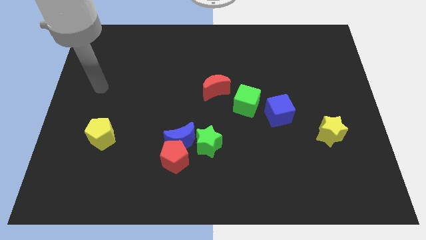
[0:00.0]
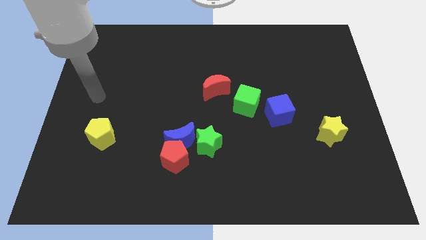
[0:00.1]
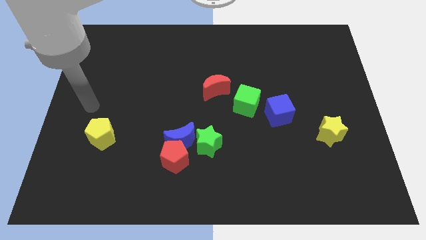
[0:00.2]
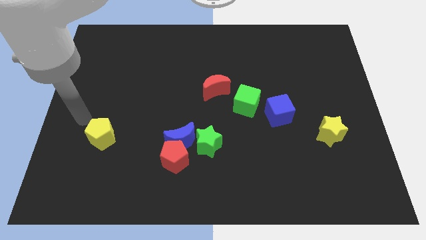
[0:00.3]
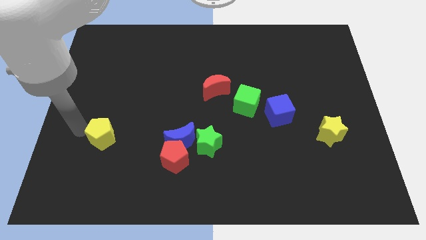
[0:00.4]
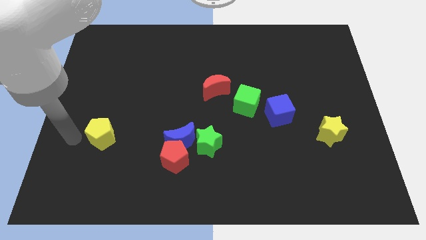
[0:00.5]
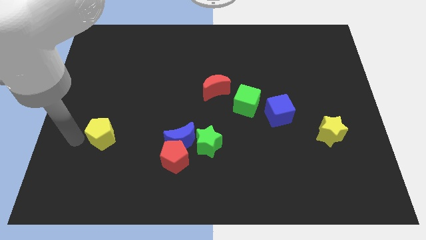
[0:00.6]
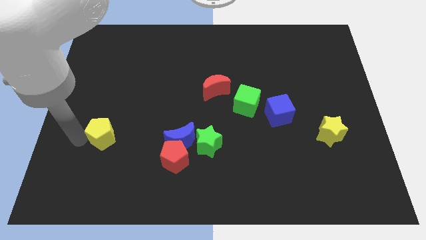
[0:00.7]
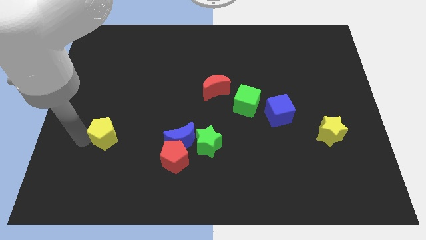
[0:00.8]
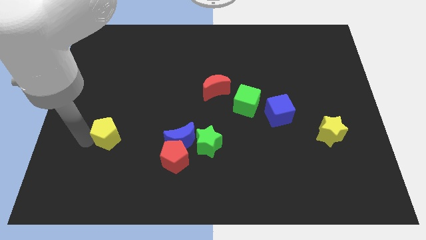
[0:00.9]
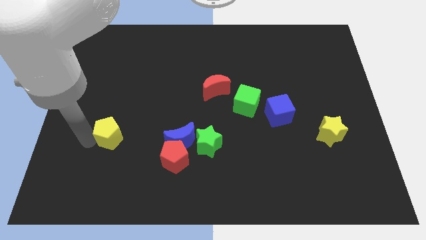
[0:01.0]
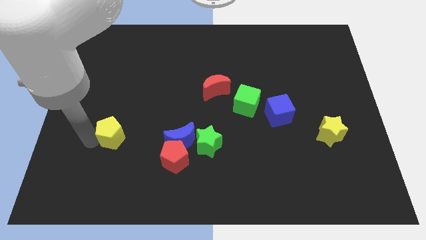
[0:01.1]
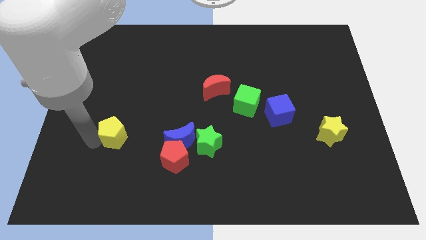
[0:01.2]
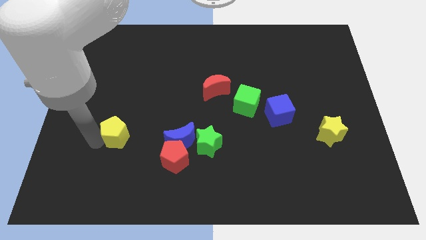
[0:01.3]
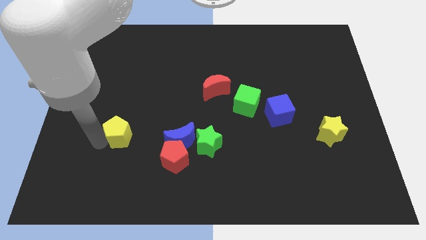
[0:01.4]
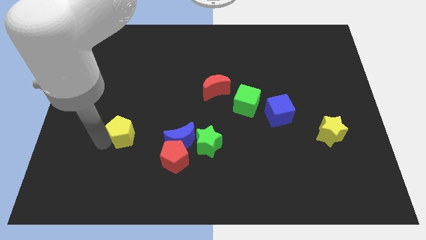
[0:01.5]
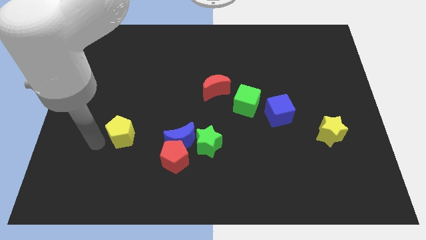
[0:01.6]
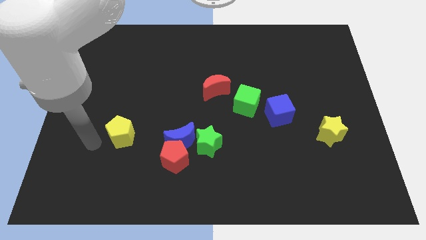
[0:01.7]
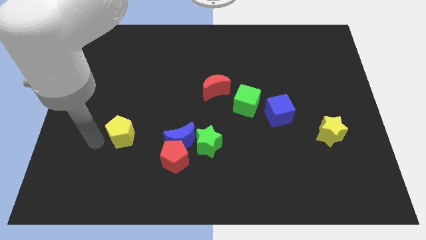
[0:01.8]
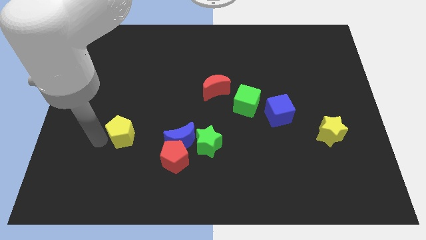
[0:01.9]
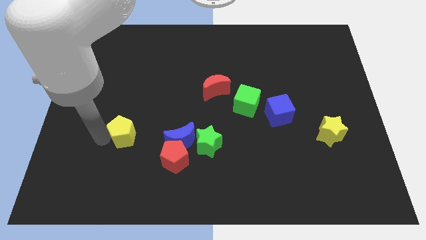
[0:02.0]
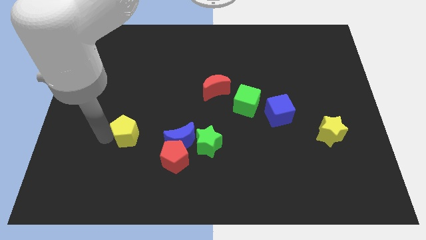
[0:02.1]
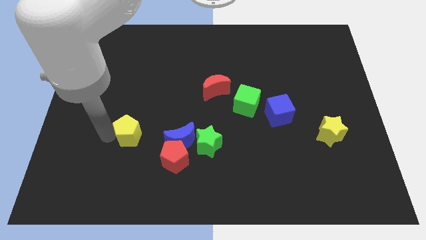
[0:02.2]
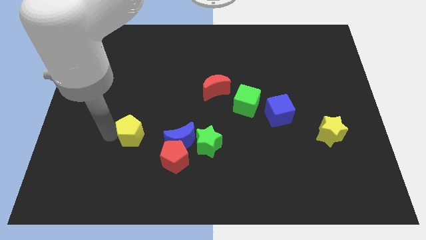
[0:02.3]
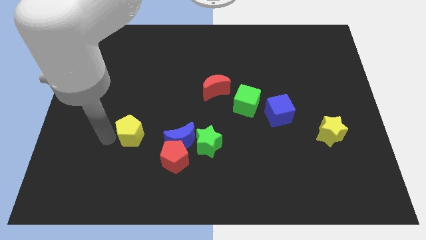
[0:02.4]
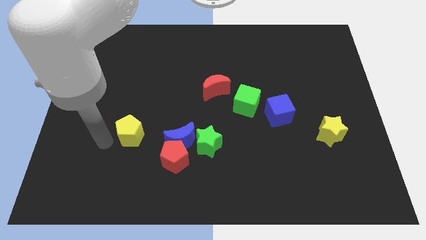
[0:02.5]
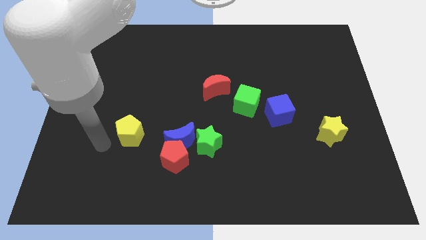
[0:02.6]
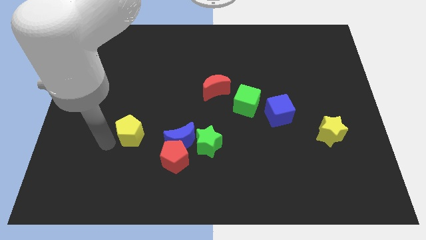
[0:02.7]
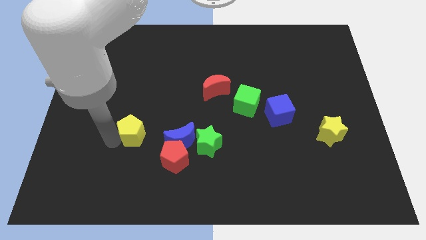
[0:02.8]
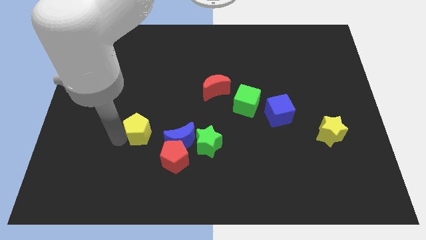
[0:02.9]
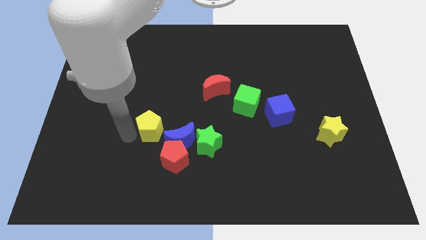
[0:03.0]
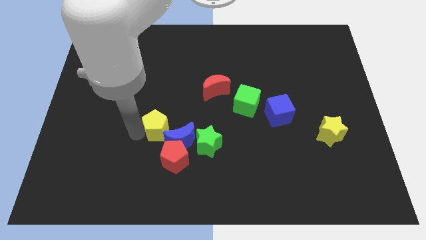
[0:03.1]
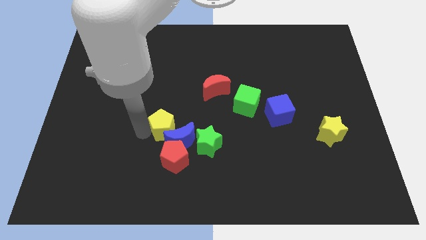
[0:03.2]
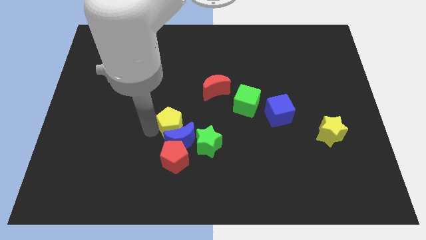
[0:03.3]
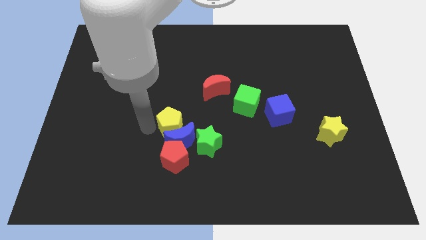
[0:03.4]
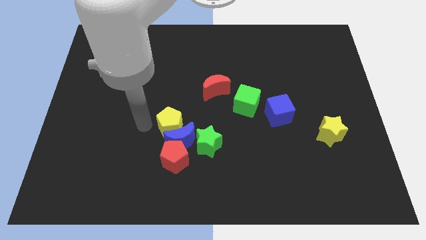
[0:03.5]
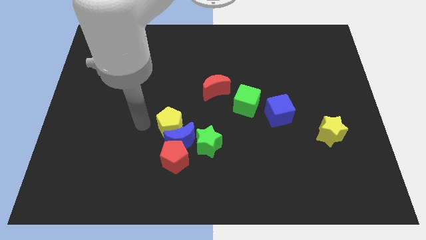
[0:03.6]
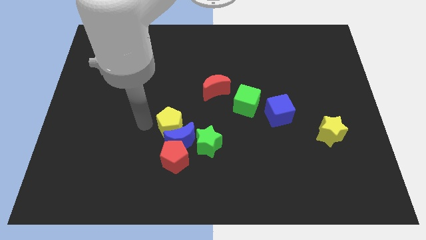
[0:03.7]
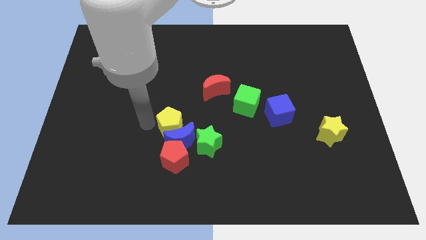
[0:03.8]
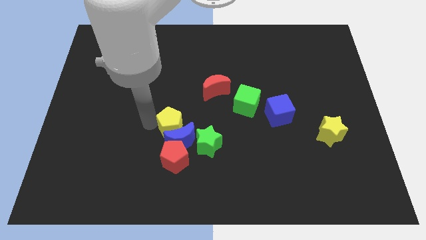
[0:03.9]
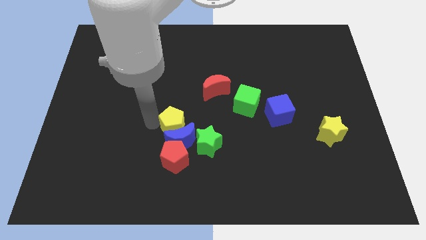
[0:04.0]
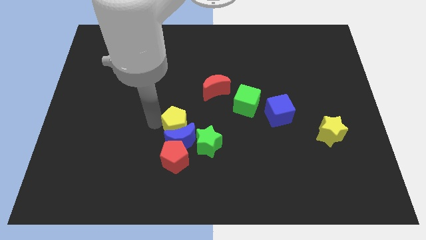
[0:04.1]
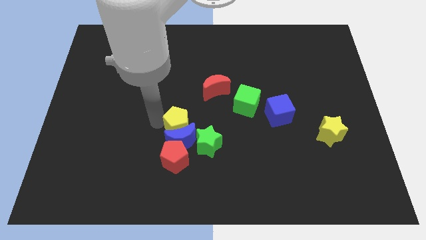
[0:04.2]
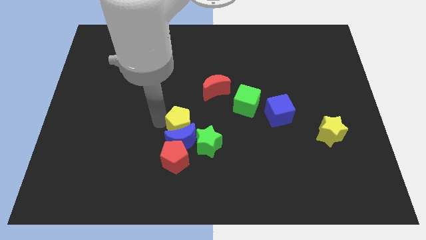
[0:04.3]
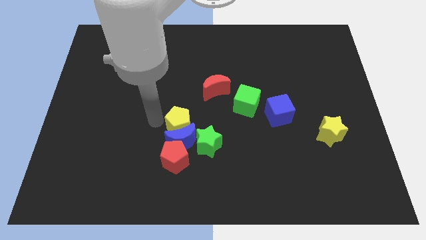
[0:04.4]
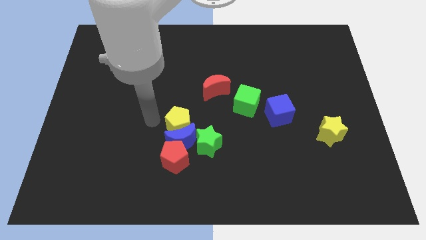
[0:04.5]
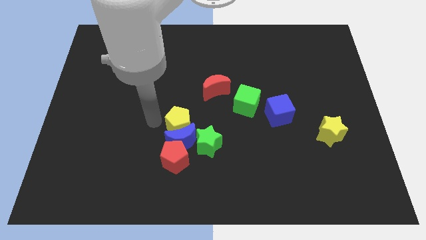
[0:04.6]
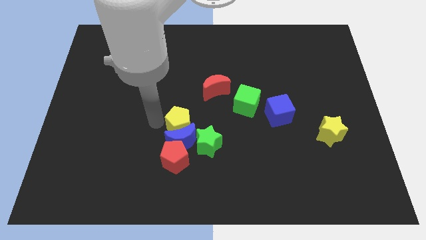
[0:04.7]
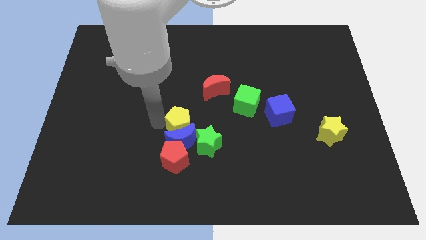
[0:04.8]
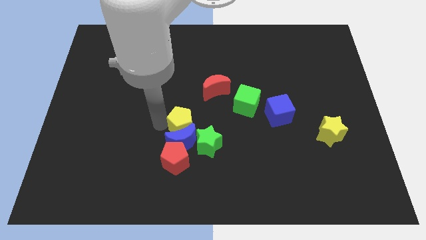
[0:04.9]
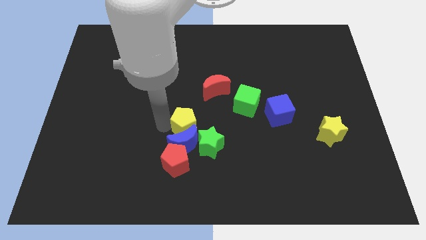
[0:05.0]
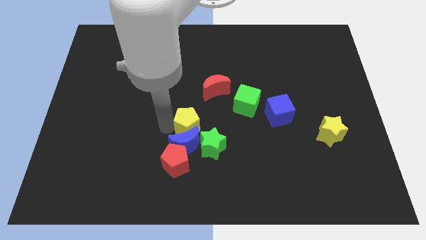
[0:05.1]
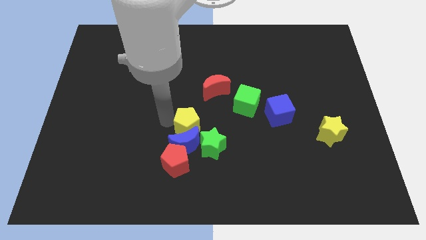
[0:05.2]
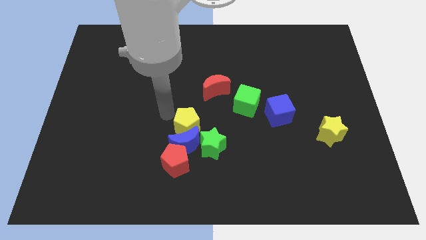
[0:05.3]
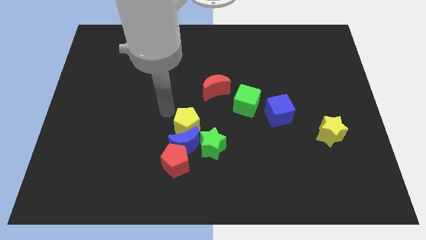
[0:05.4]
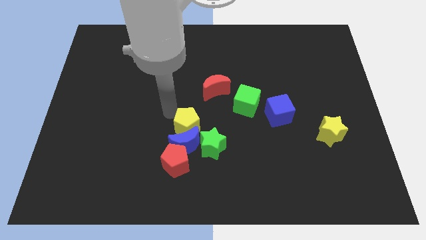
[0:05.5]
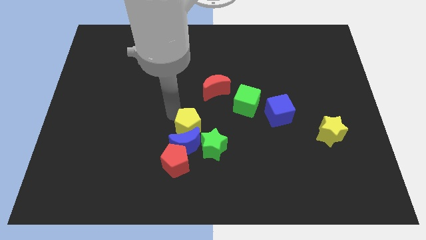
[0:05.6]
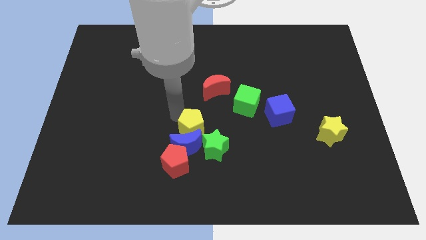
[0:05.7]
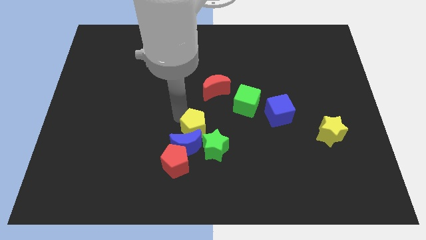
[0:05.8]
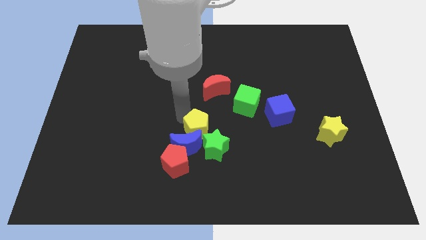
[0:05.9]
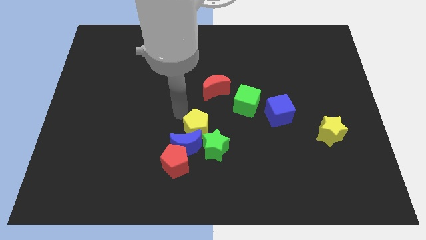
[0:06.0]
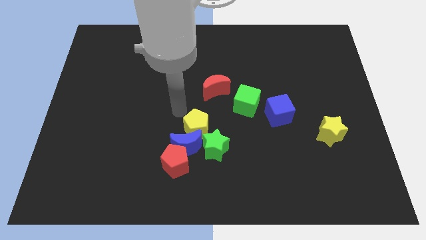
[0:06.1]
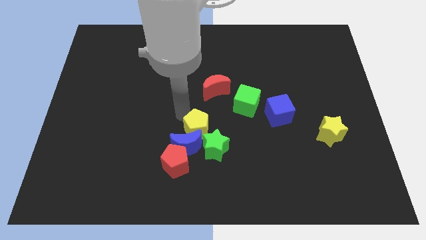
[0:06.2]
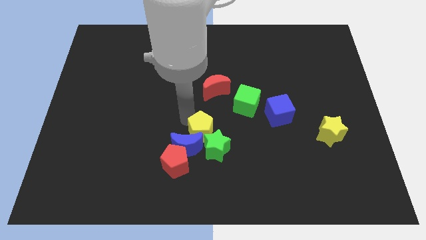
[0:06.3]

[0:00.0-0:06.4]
push the yellow pentagon close to the green star

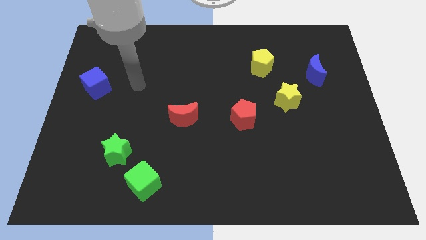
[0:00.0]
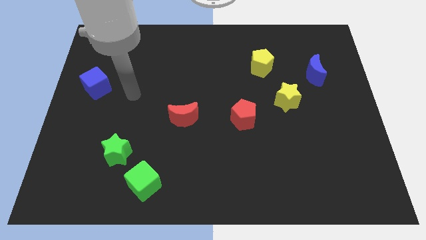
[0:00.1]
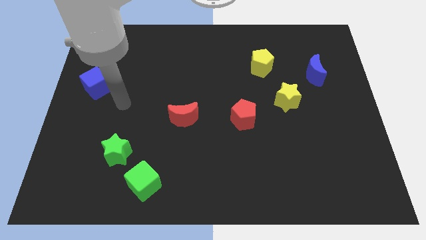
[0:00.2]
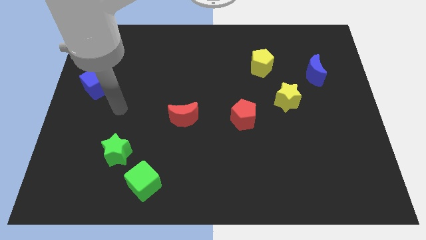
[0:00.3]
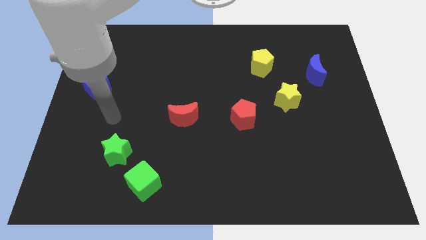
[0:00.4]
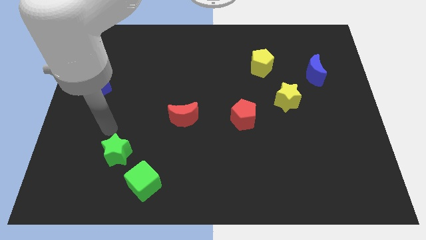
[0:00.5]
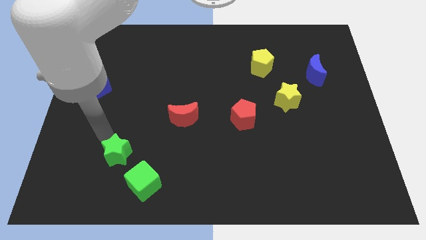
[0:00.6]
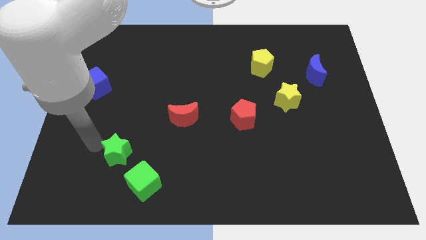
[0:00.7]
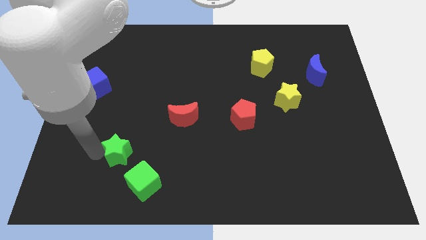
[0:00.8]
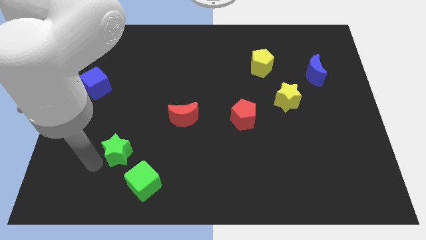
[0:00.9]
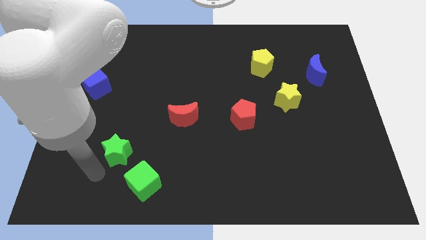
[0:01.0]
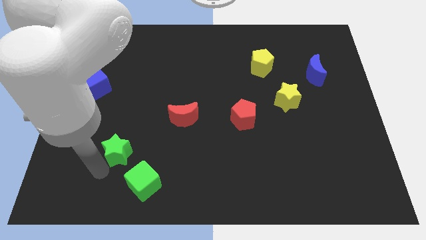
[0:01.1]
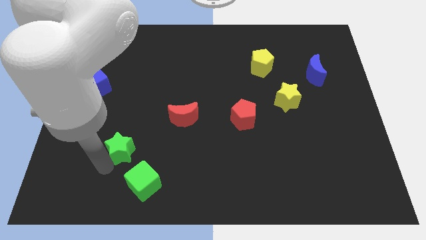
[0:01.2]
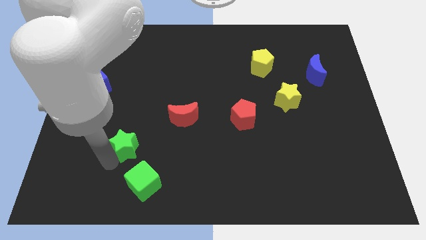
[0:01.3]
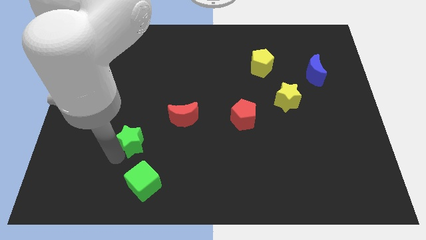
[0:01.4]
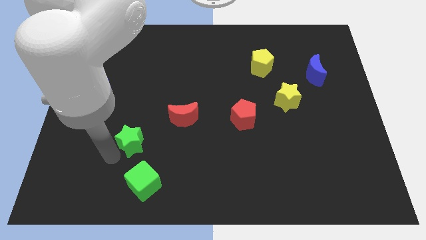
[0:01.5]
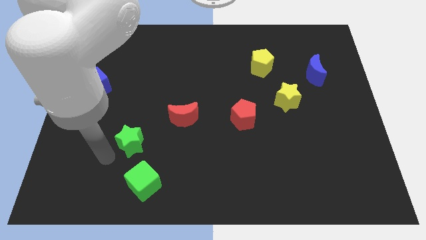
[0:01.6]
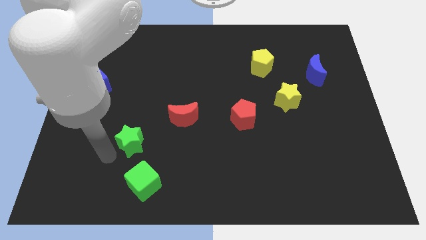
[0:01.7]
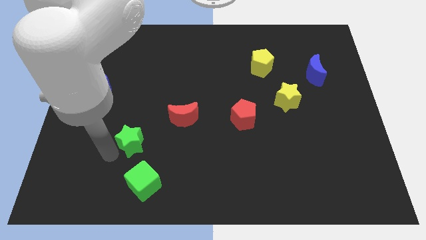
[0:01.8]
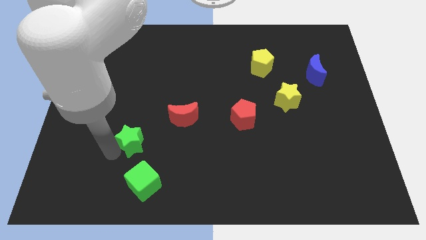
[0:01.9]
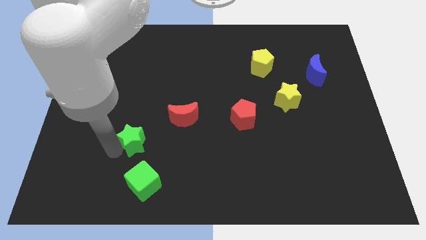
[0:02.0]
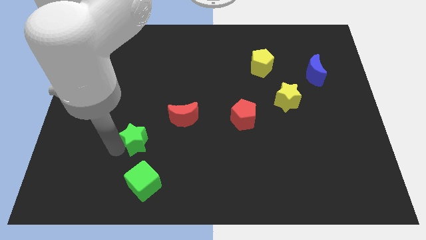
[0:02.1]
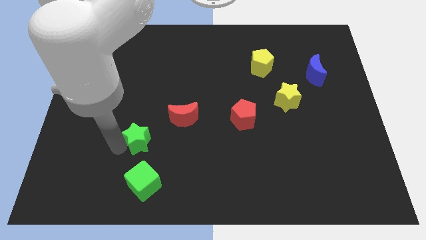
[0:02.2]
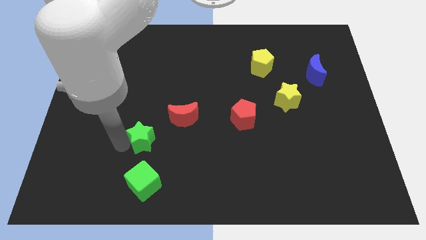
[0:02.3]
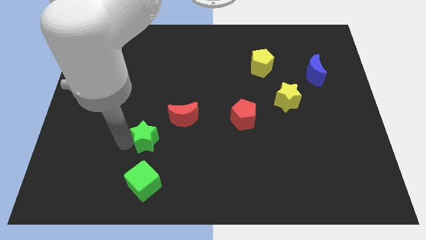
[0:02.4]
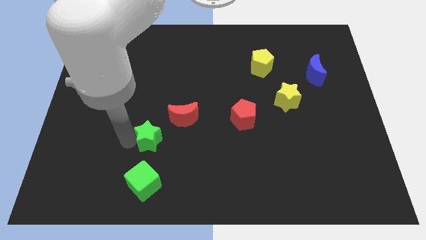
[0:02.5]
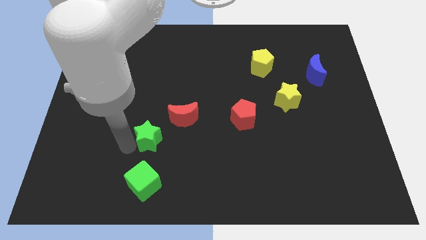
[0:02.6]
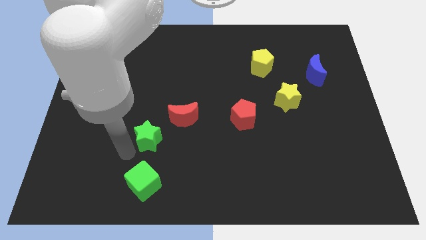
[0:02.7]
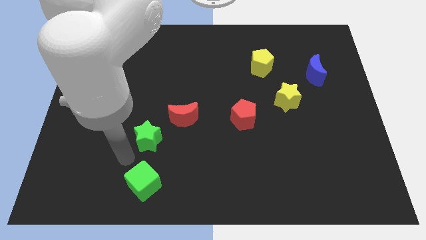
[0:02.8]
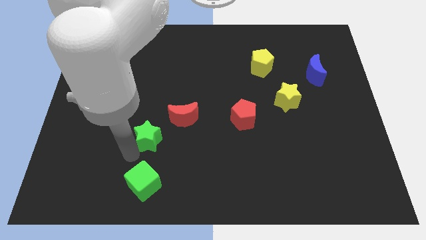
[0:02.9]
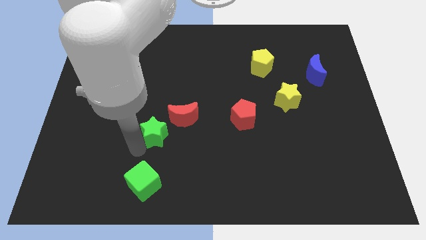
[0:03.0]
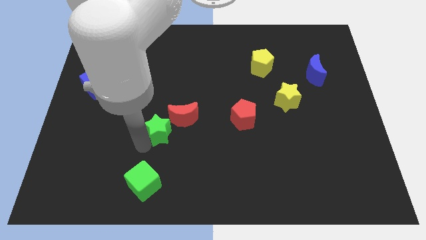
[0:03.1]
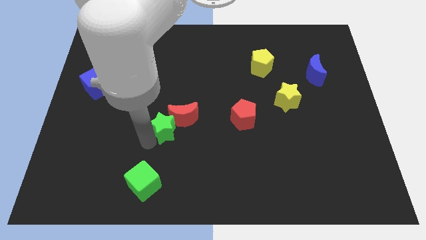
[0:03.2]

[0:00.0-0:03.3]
move the green star close to the red moon
